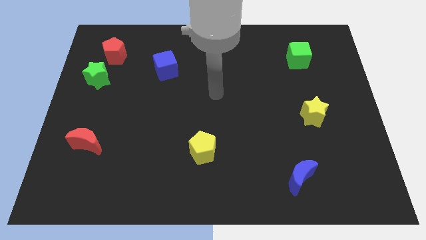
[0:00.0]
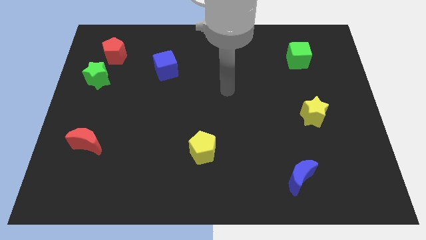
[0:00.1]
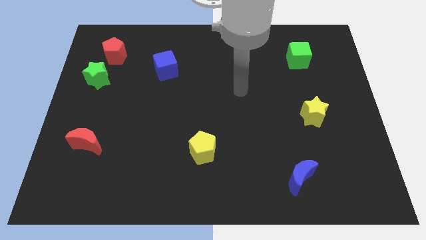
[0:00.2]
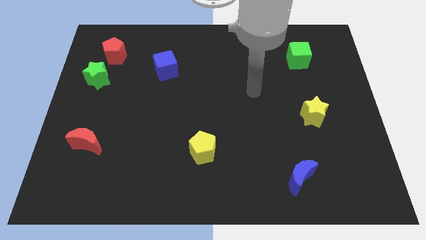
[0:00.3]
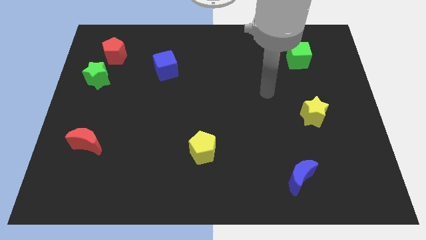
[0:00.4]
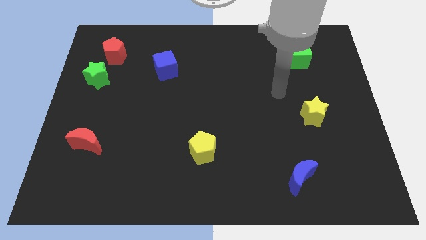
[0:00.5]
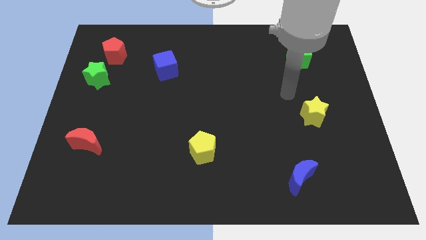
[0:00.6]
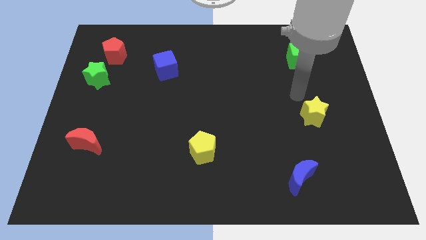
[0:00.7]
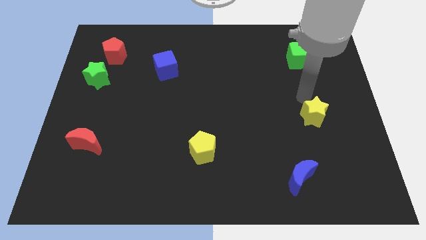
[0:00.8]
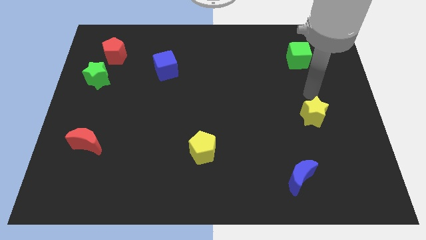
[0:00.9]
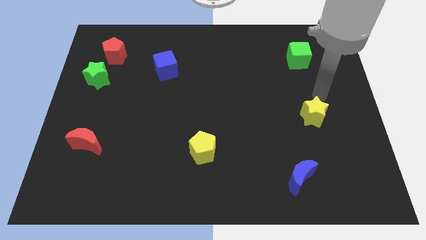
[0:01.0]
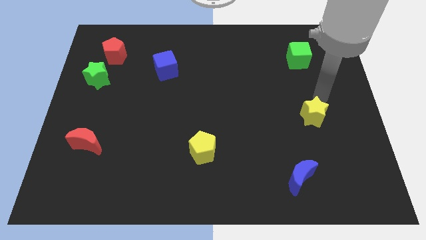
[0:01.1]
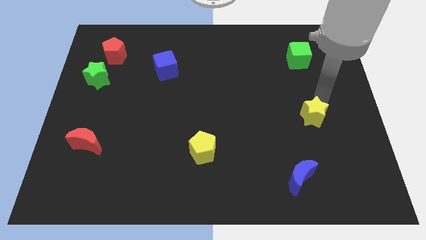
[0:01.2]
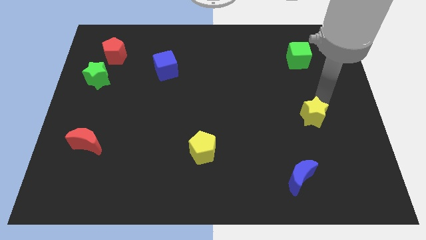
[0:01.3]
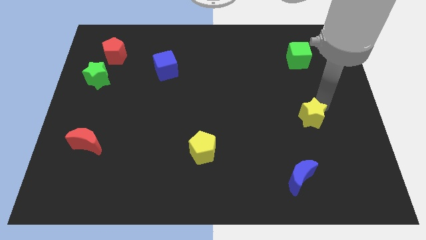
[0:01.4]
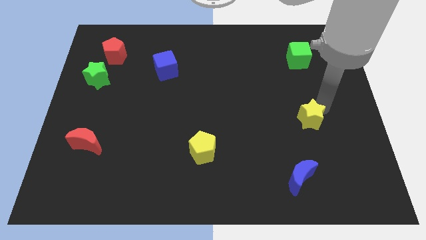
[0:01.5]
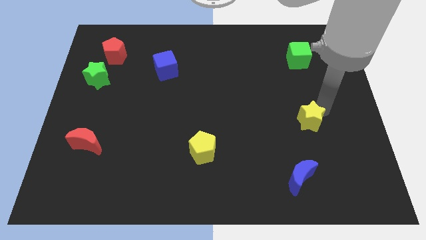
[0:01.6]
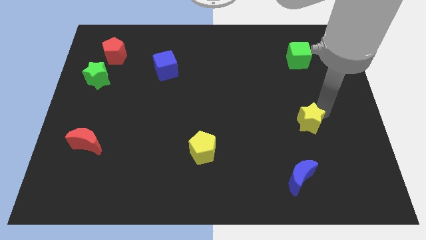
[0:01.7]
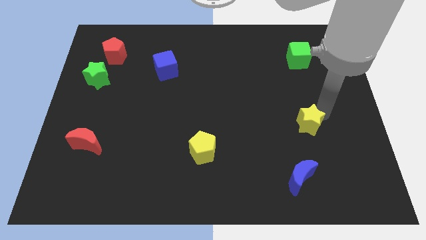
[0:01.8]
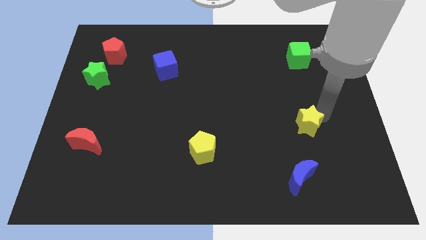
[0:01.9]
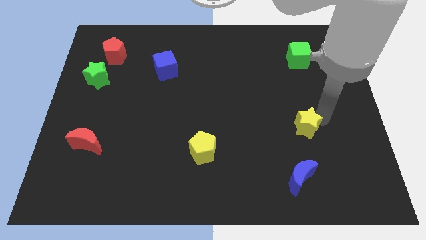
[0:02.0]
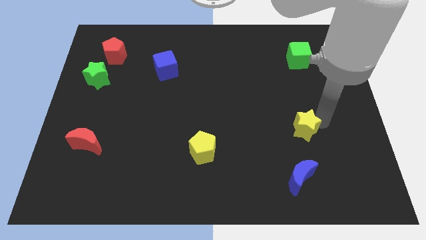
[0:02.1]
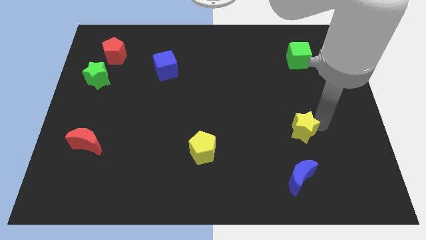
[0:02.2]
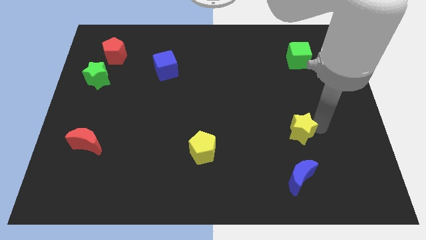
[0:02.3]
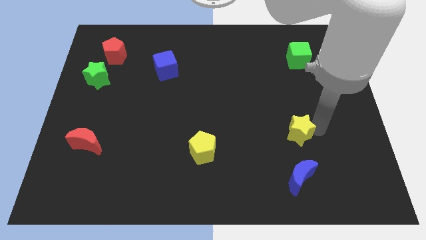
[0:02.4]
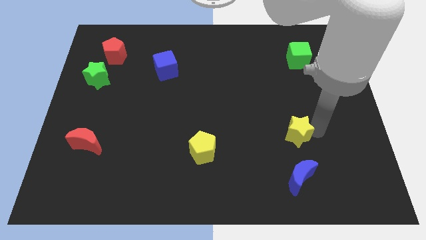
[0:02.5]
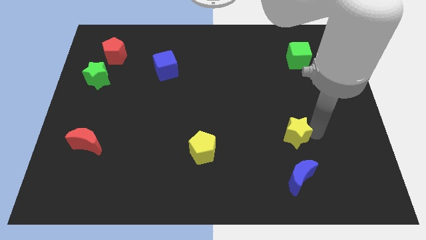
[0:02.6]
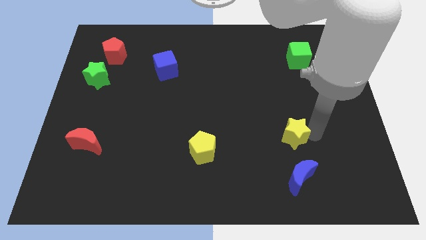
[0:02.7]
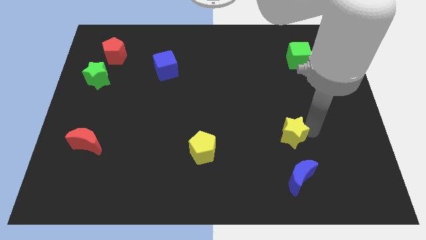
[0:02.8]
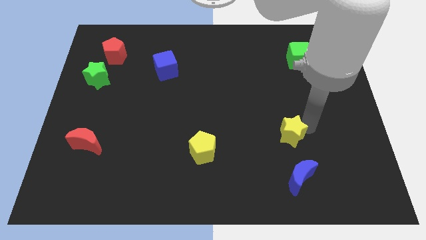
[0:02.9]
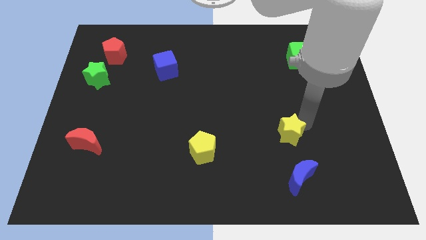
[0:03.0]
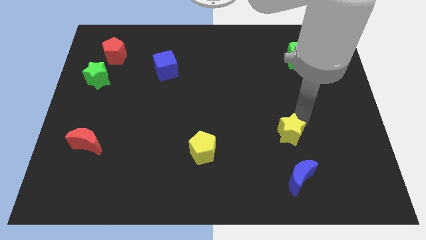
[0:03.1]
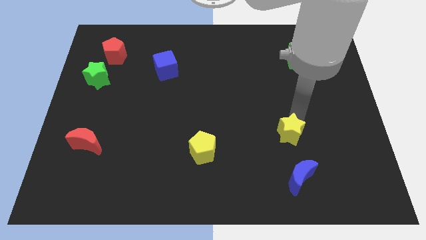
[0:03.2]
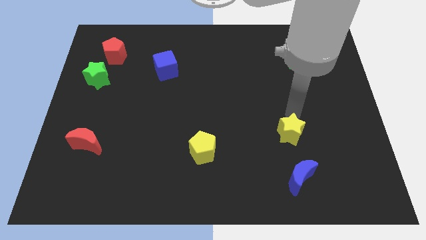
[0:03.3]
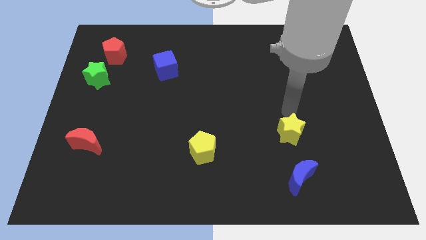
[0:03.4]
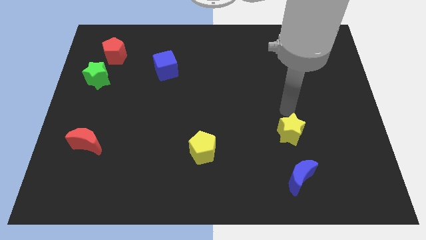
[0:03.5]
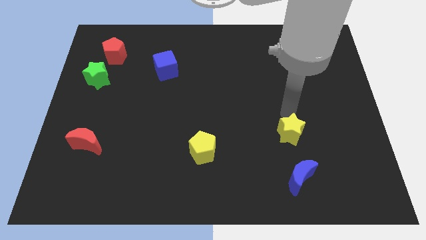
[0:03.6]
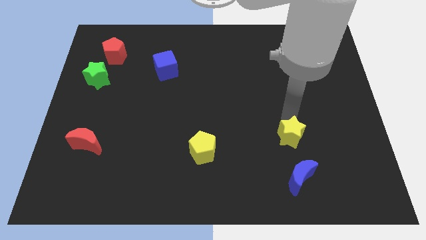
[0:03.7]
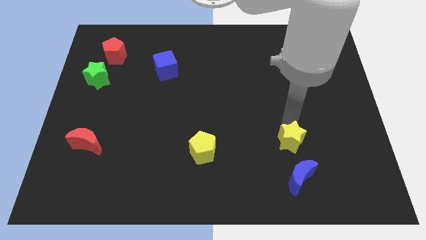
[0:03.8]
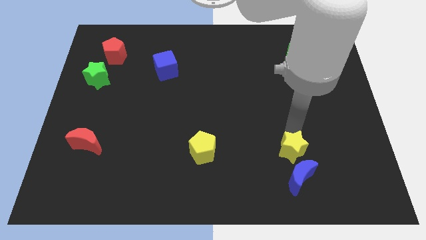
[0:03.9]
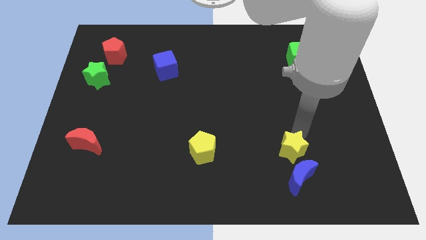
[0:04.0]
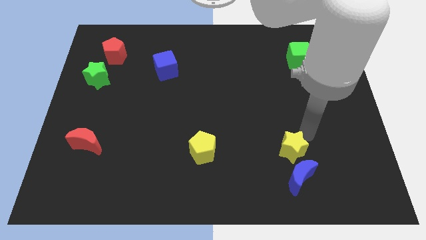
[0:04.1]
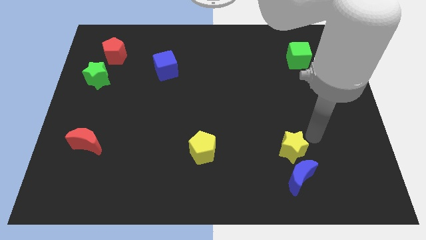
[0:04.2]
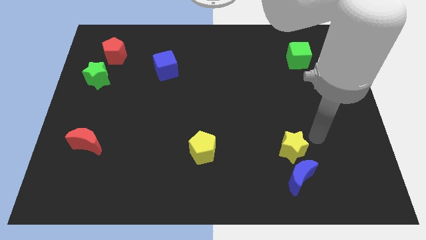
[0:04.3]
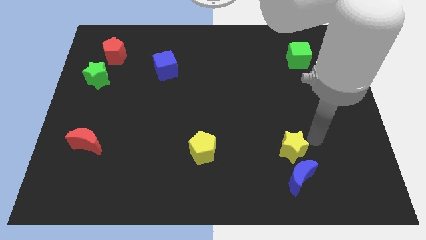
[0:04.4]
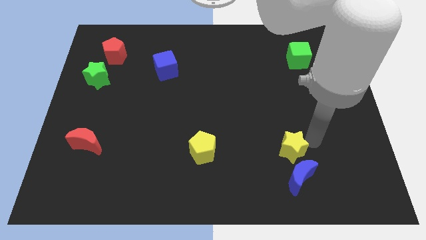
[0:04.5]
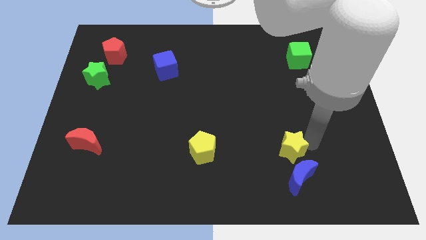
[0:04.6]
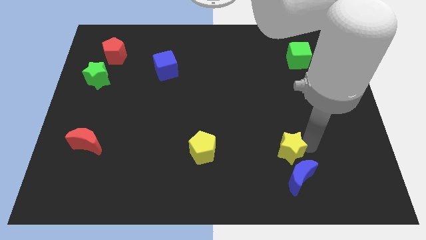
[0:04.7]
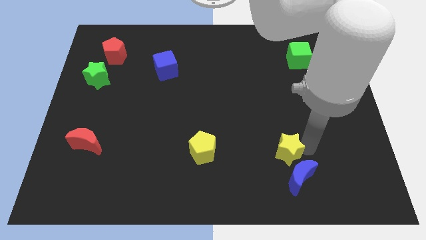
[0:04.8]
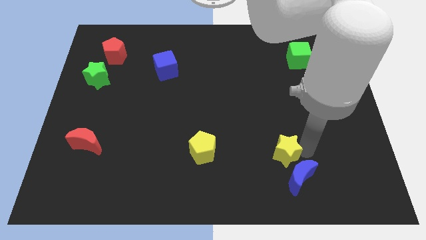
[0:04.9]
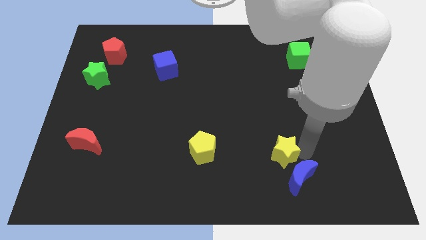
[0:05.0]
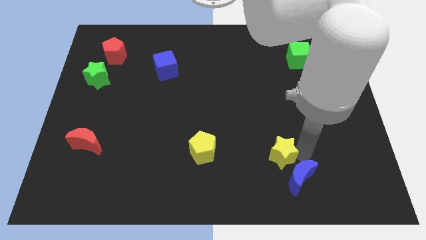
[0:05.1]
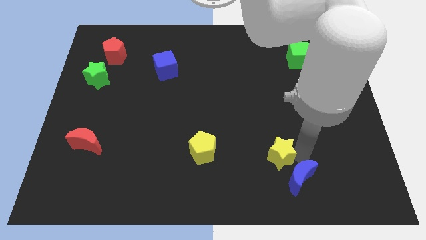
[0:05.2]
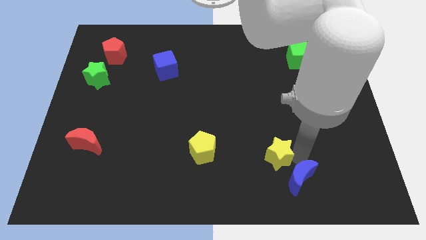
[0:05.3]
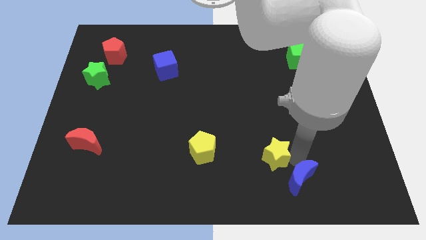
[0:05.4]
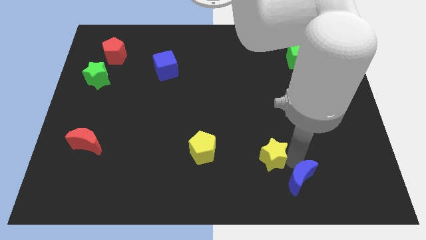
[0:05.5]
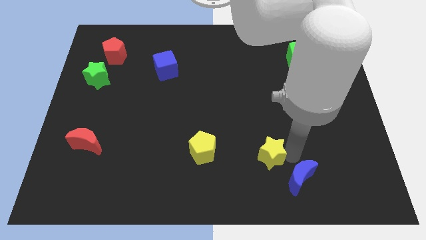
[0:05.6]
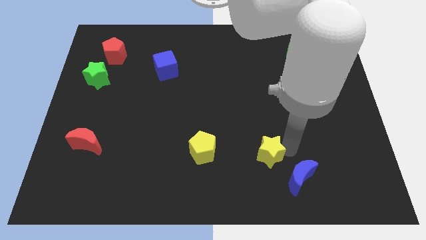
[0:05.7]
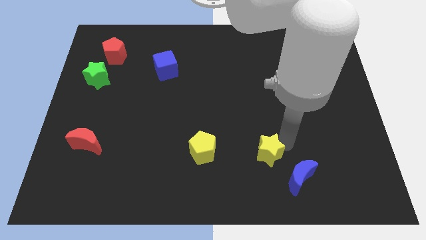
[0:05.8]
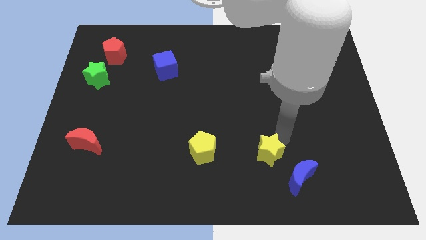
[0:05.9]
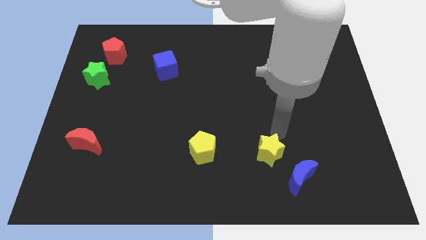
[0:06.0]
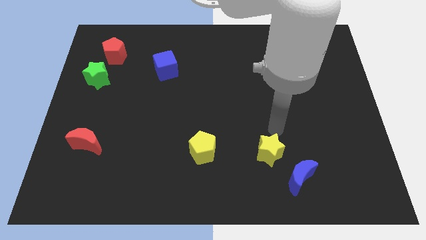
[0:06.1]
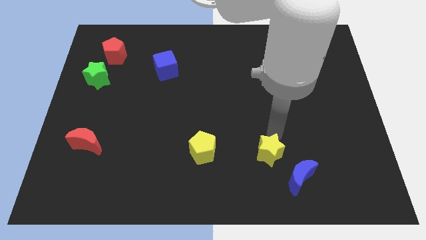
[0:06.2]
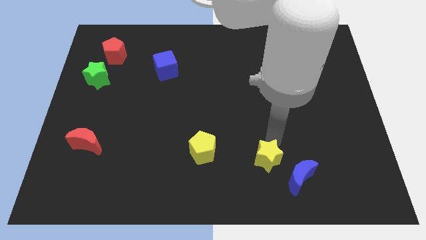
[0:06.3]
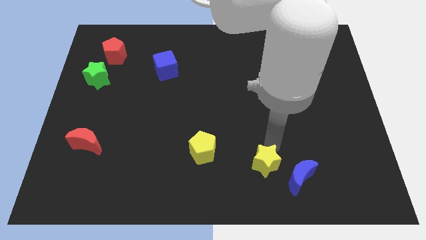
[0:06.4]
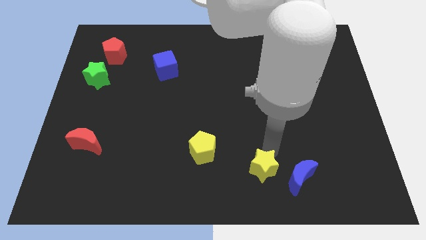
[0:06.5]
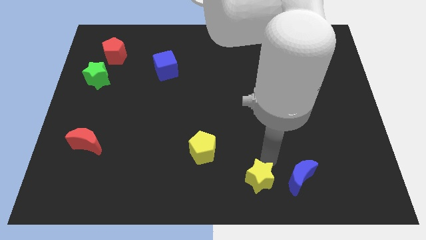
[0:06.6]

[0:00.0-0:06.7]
push the yellow star to the bottom side
